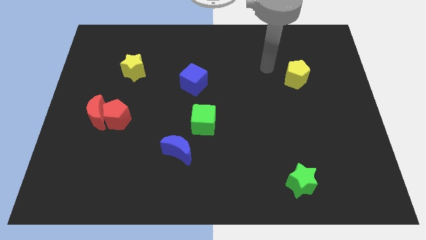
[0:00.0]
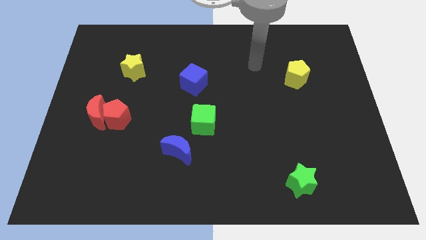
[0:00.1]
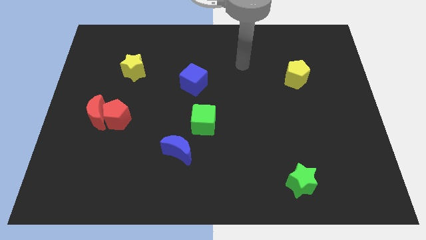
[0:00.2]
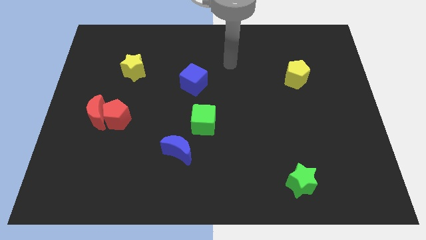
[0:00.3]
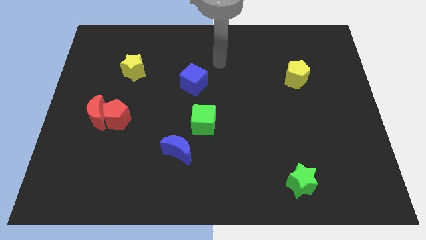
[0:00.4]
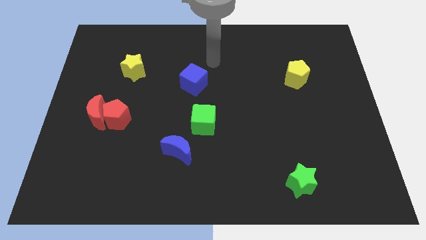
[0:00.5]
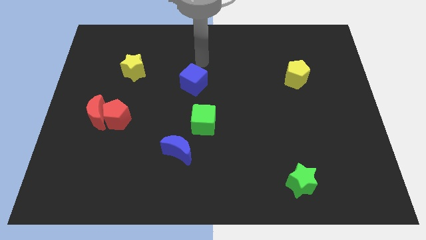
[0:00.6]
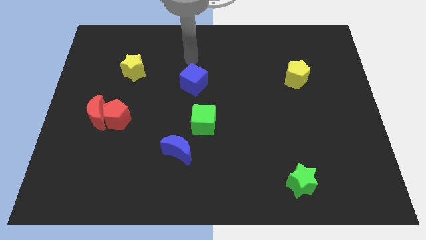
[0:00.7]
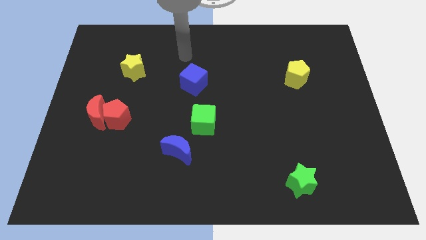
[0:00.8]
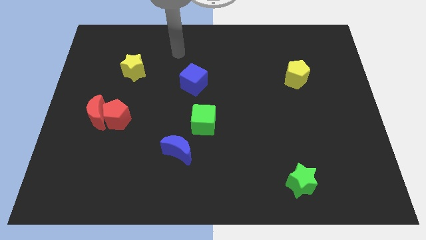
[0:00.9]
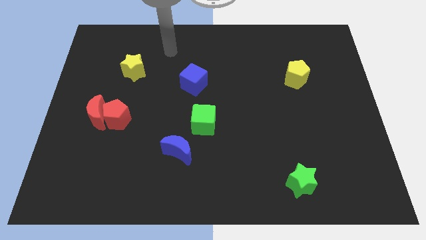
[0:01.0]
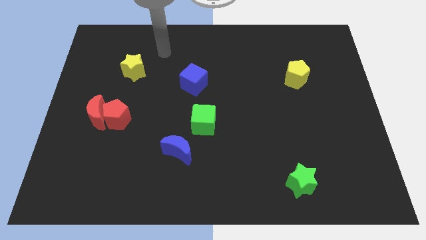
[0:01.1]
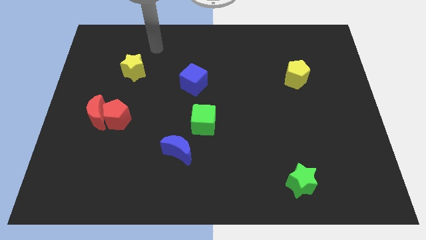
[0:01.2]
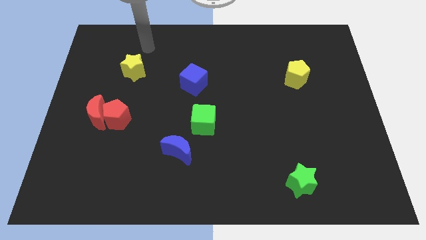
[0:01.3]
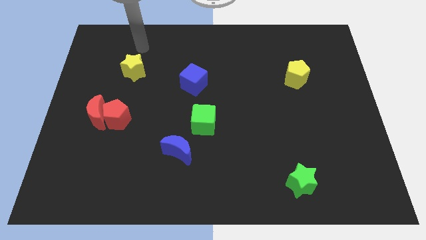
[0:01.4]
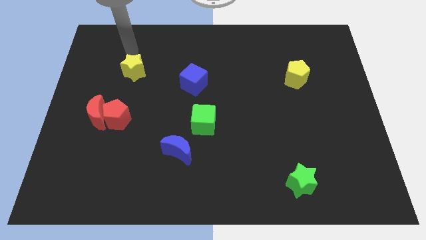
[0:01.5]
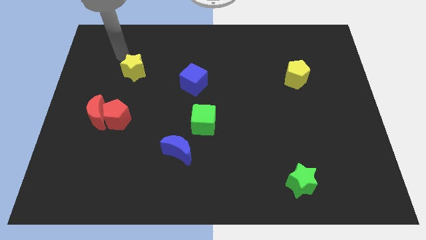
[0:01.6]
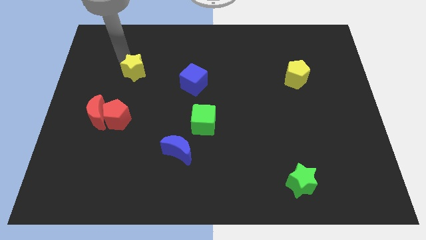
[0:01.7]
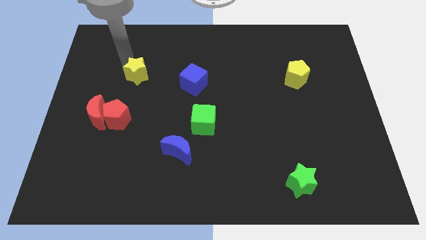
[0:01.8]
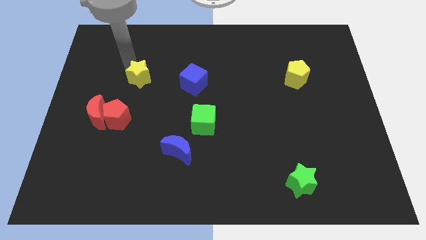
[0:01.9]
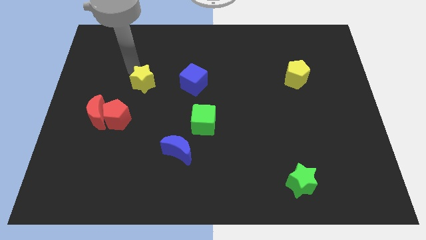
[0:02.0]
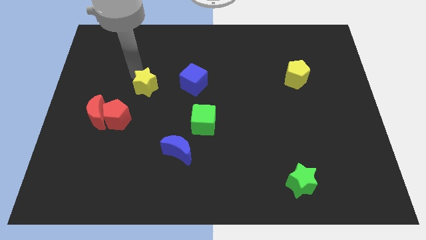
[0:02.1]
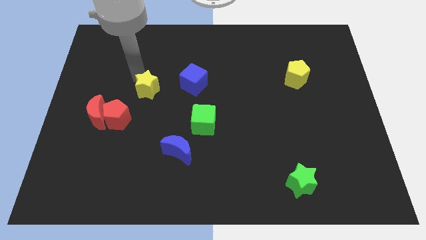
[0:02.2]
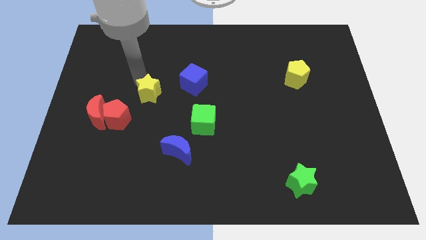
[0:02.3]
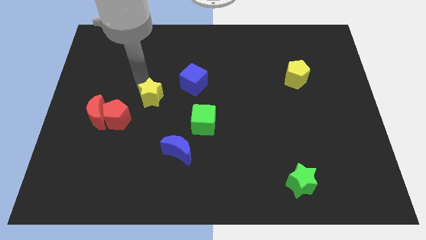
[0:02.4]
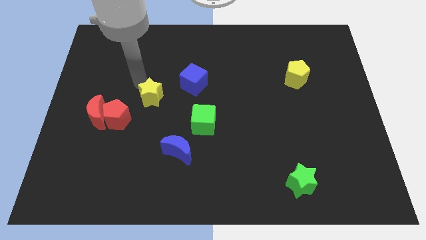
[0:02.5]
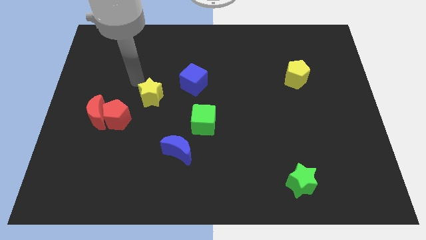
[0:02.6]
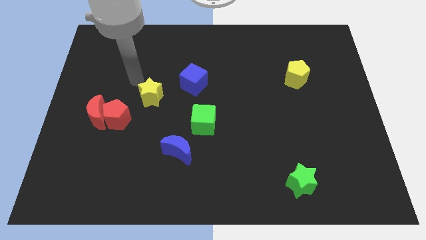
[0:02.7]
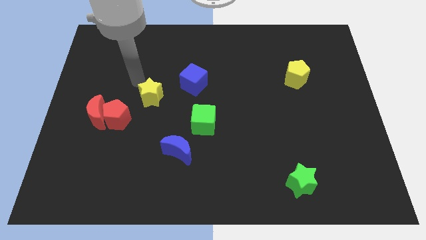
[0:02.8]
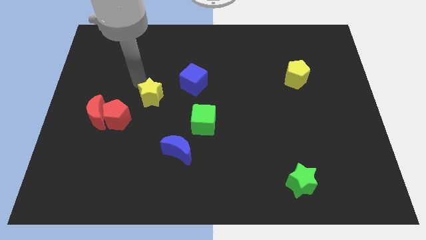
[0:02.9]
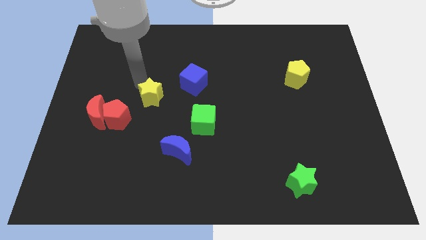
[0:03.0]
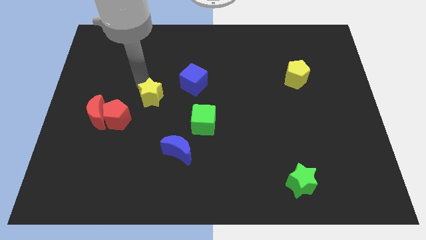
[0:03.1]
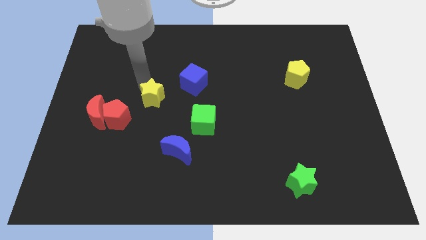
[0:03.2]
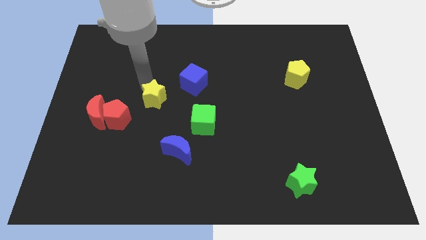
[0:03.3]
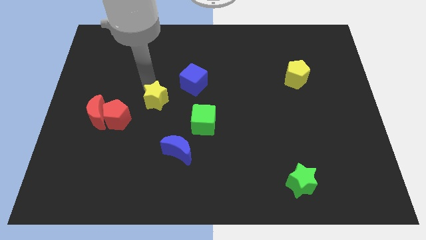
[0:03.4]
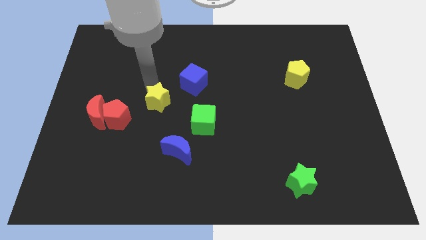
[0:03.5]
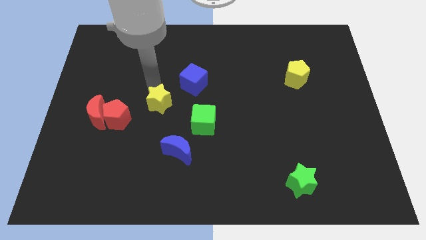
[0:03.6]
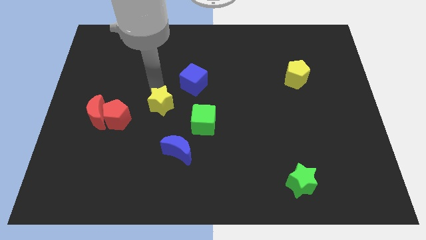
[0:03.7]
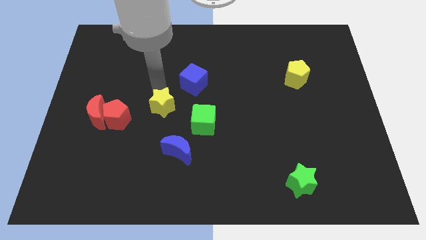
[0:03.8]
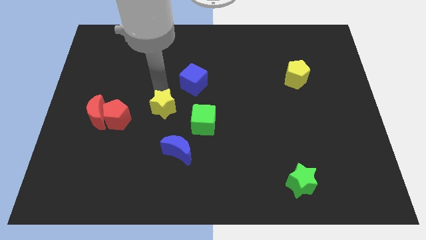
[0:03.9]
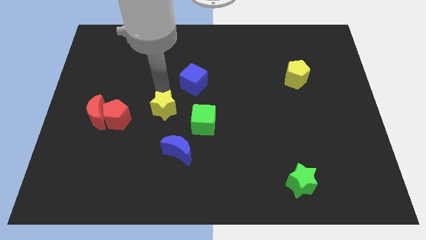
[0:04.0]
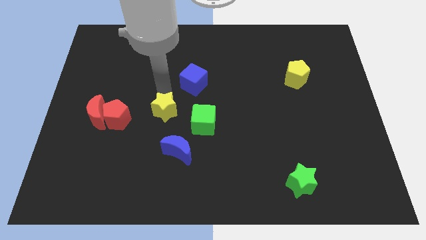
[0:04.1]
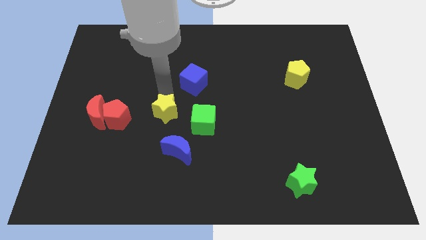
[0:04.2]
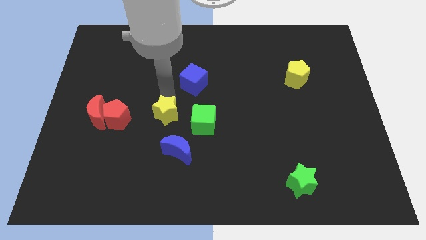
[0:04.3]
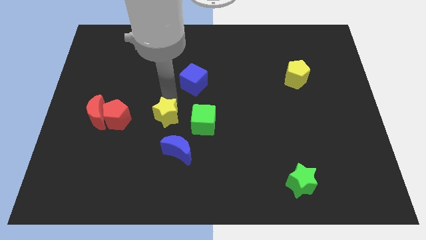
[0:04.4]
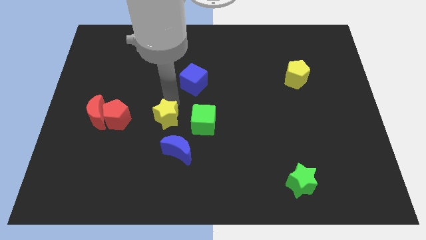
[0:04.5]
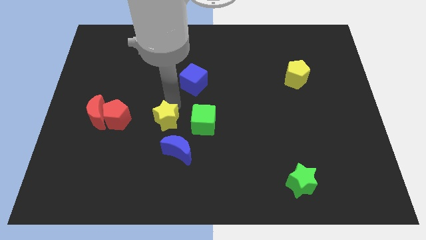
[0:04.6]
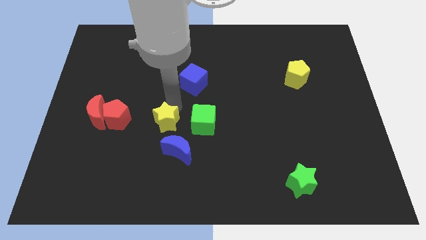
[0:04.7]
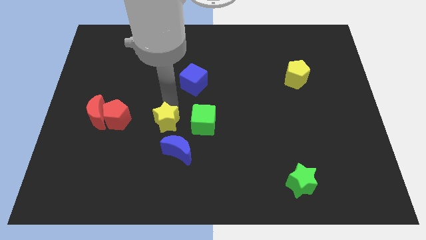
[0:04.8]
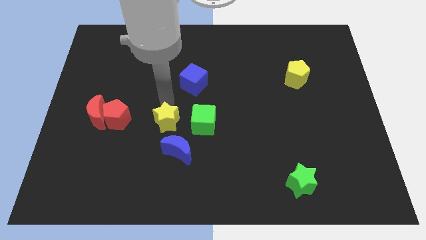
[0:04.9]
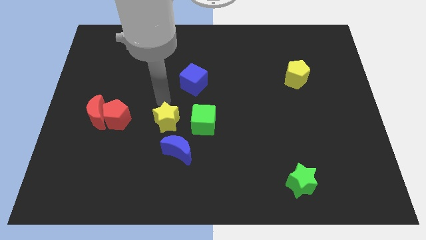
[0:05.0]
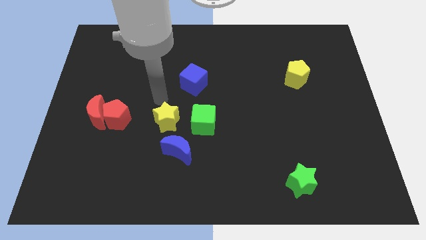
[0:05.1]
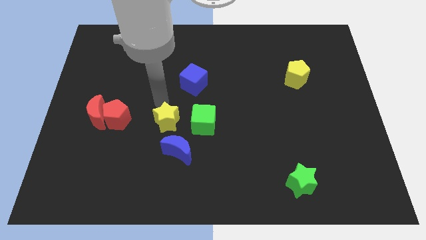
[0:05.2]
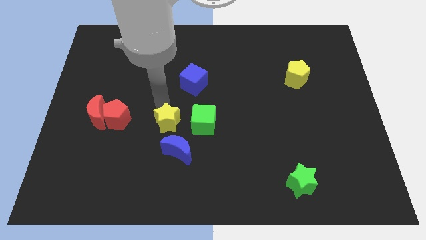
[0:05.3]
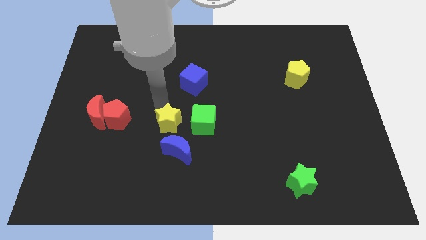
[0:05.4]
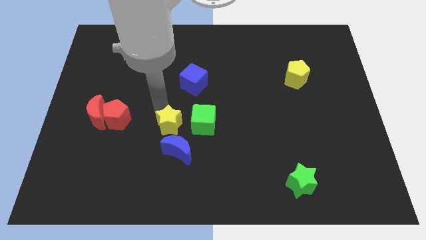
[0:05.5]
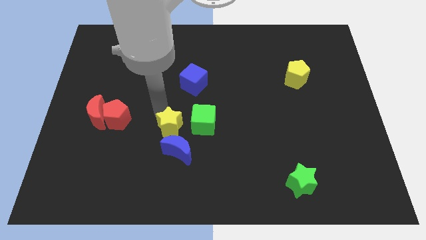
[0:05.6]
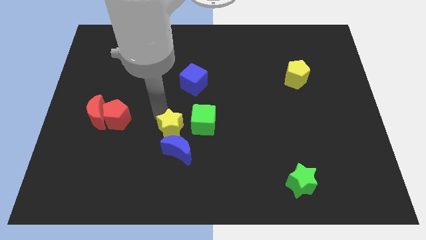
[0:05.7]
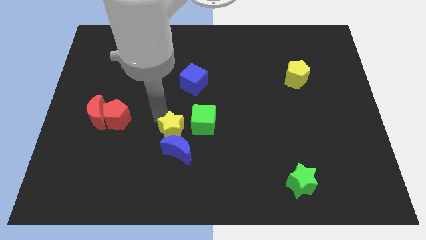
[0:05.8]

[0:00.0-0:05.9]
move the yellow star next to the blue moon

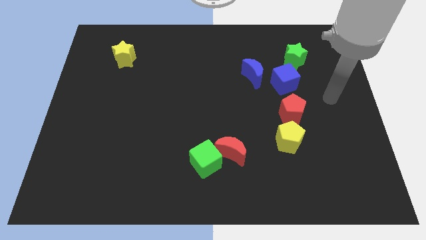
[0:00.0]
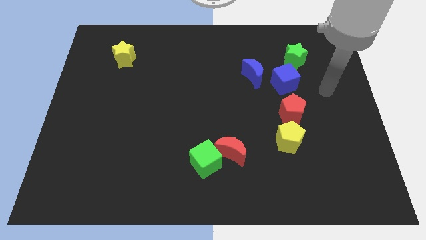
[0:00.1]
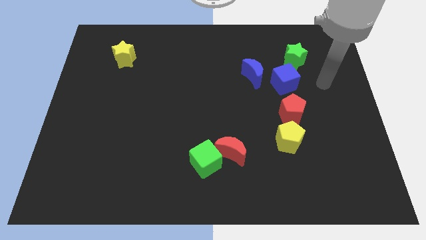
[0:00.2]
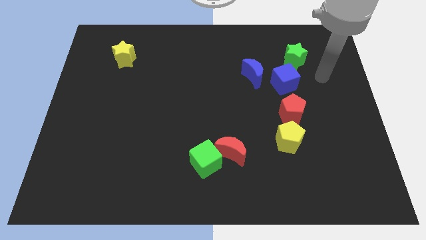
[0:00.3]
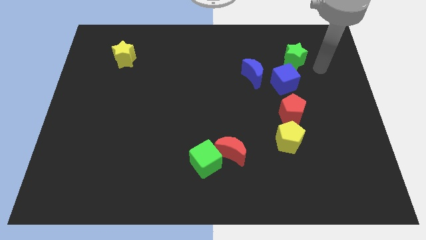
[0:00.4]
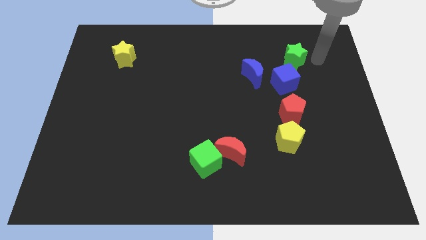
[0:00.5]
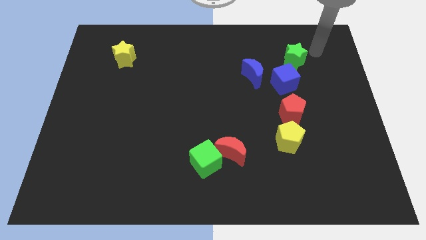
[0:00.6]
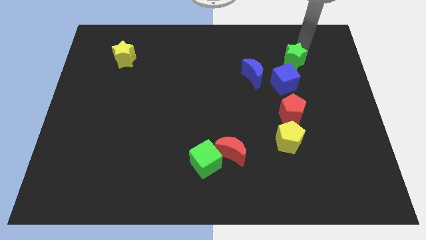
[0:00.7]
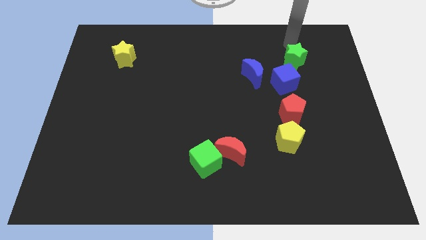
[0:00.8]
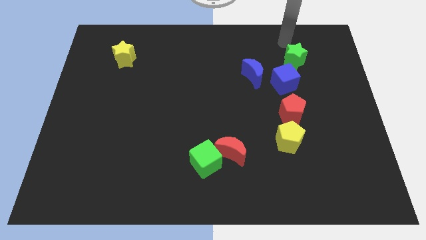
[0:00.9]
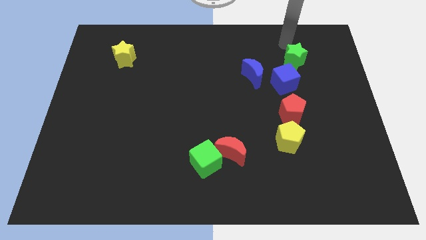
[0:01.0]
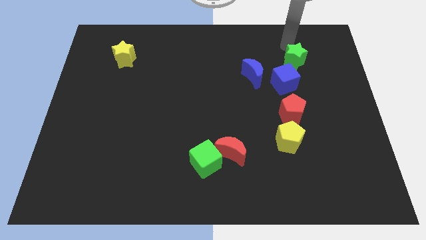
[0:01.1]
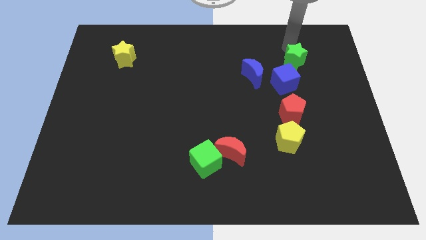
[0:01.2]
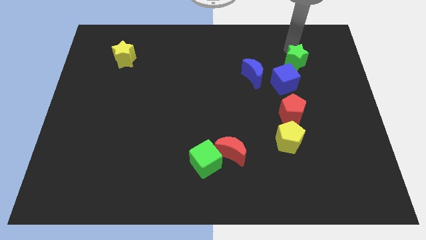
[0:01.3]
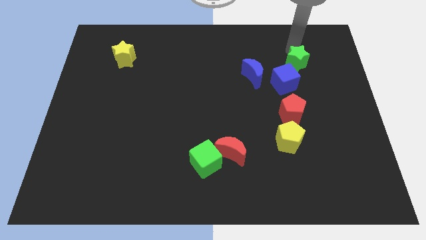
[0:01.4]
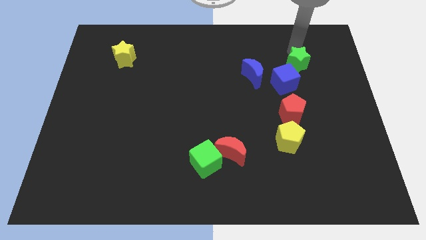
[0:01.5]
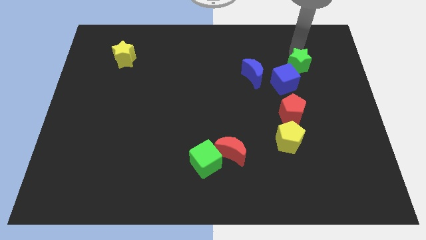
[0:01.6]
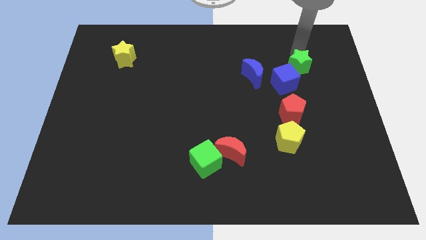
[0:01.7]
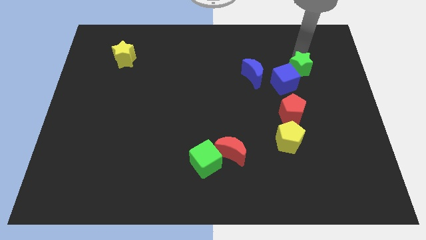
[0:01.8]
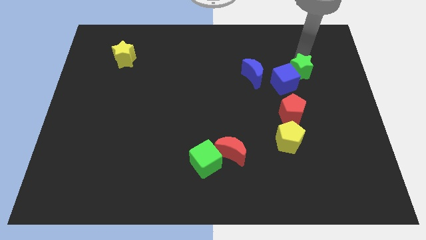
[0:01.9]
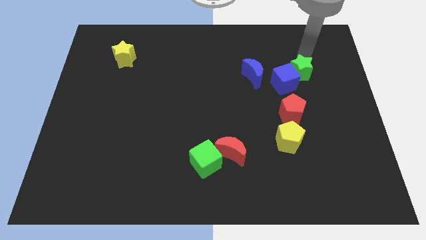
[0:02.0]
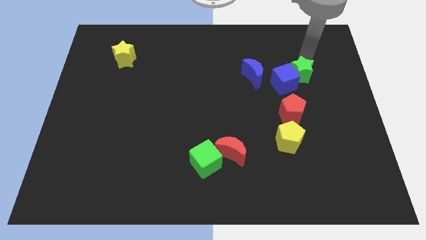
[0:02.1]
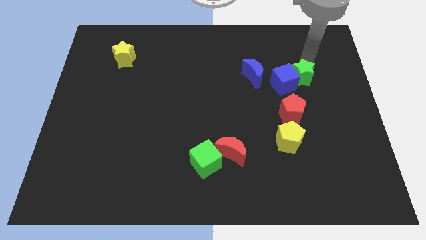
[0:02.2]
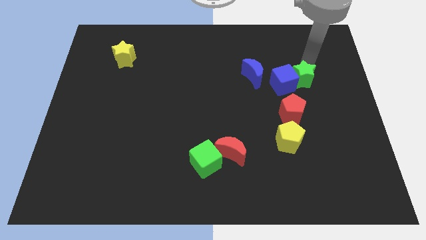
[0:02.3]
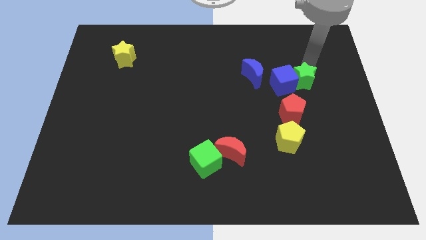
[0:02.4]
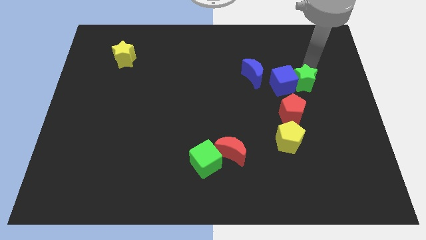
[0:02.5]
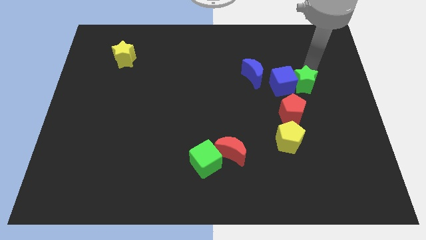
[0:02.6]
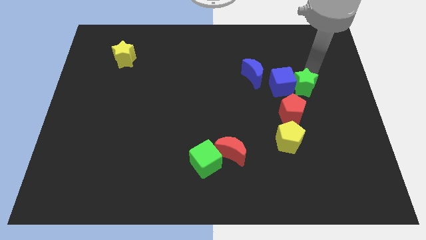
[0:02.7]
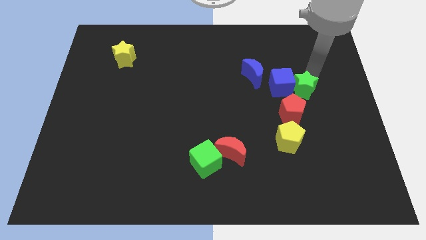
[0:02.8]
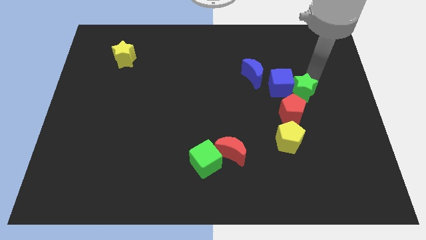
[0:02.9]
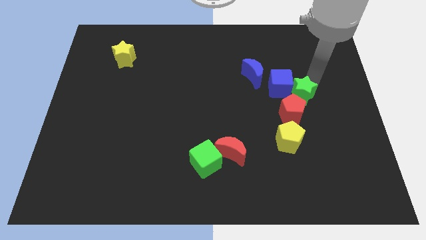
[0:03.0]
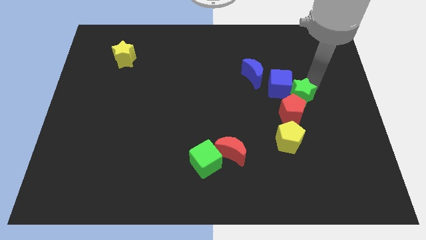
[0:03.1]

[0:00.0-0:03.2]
put the green star towards the red pentagon
